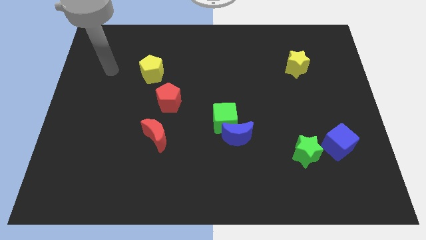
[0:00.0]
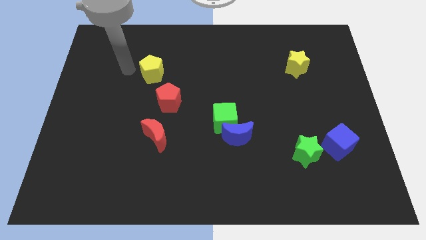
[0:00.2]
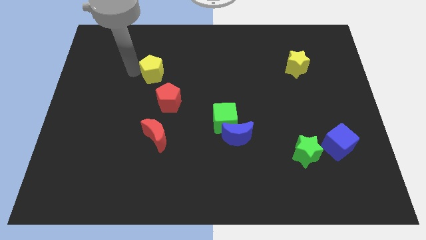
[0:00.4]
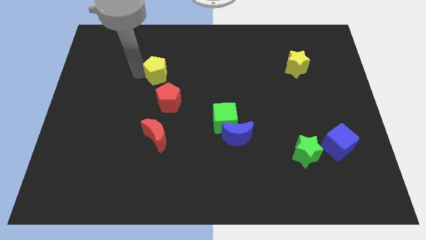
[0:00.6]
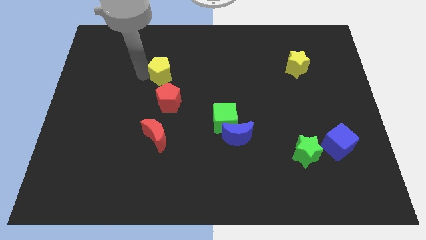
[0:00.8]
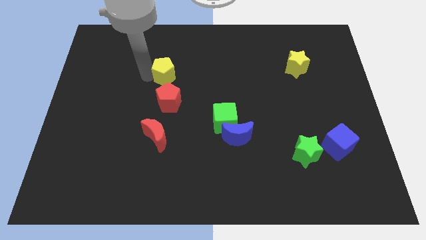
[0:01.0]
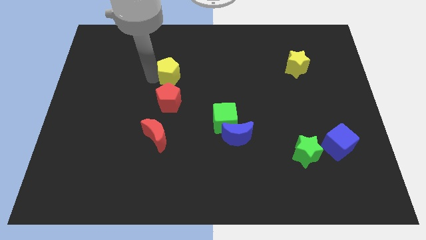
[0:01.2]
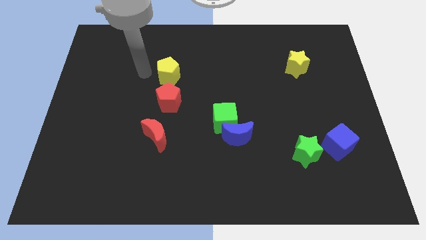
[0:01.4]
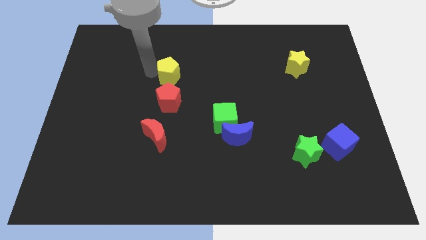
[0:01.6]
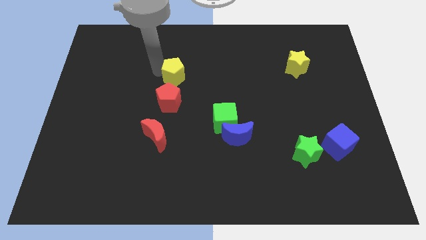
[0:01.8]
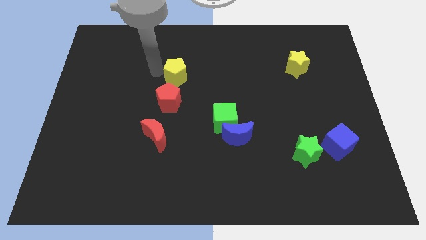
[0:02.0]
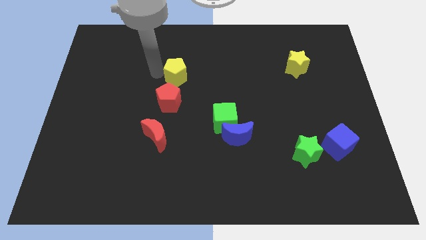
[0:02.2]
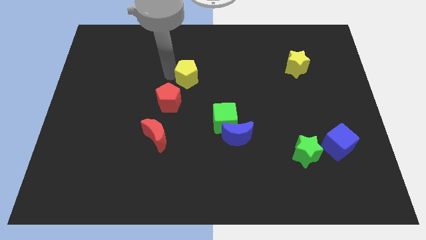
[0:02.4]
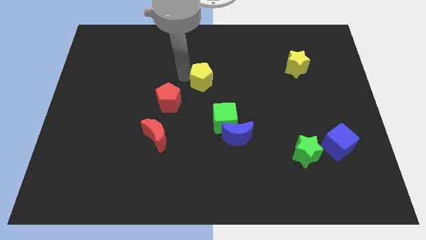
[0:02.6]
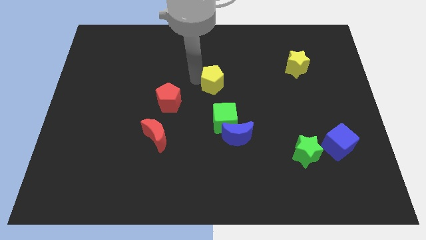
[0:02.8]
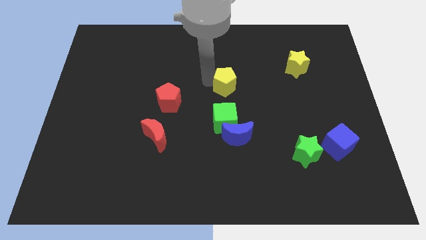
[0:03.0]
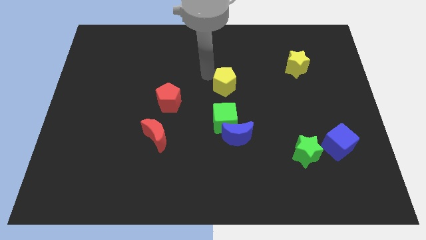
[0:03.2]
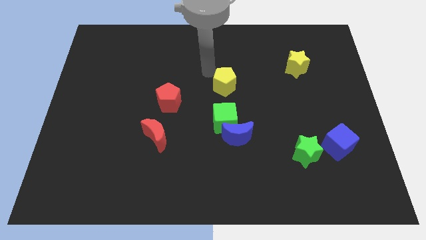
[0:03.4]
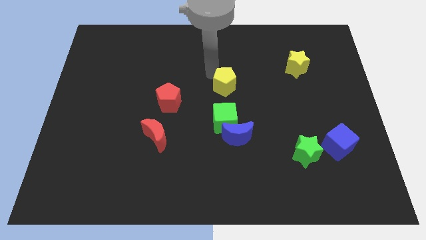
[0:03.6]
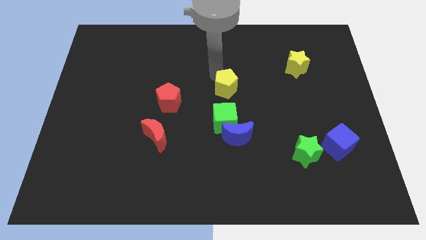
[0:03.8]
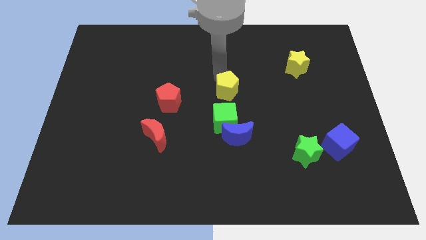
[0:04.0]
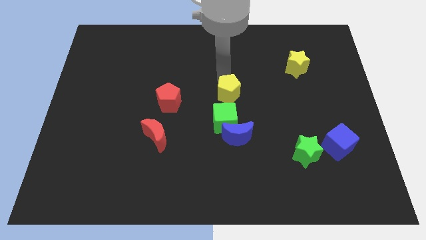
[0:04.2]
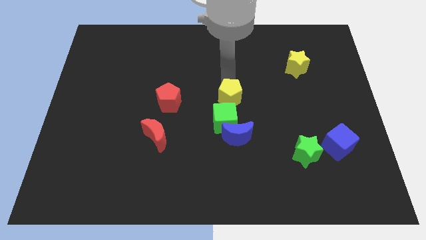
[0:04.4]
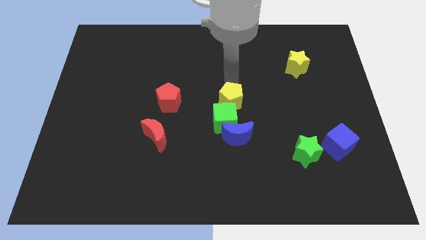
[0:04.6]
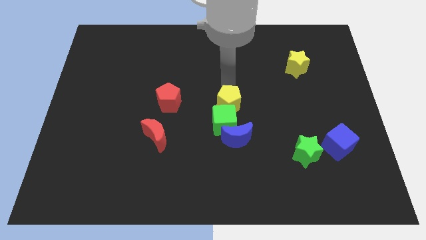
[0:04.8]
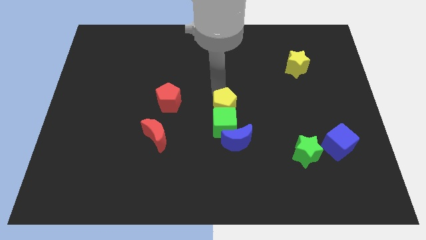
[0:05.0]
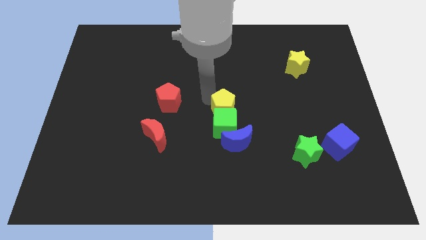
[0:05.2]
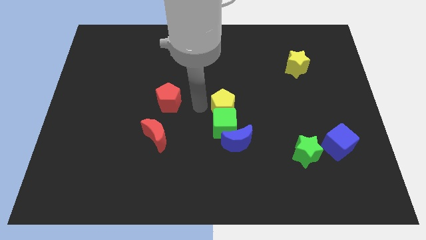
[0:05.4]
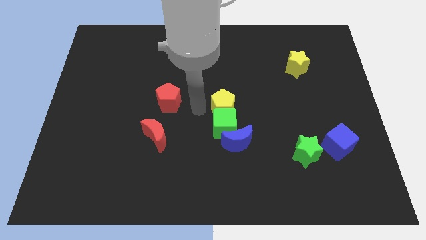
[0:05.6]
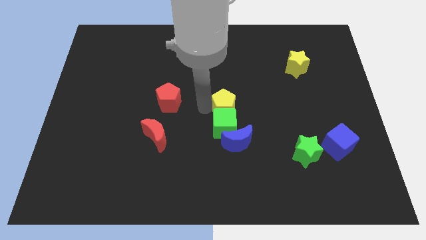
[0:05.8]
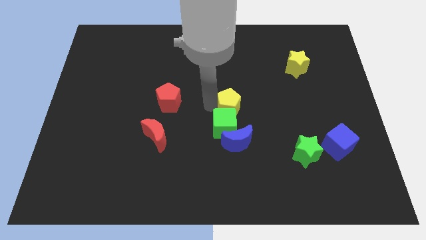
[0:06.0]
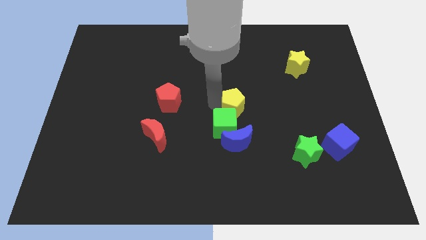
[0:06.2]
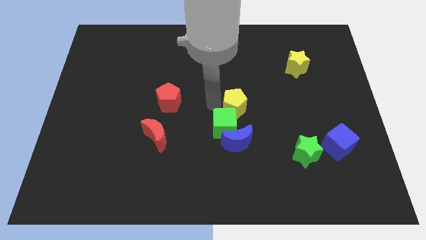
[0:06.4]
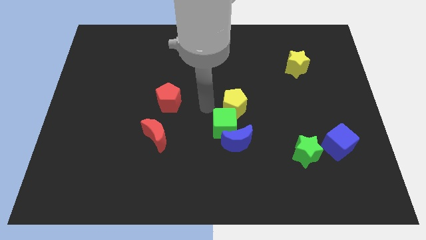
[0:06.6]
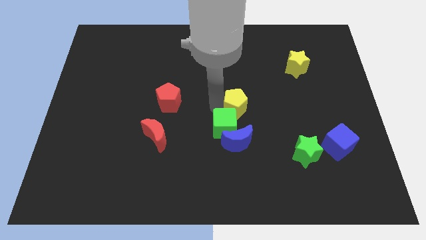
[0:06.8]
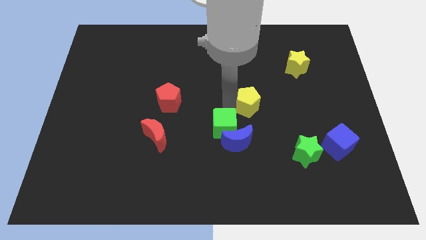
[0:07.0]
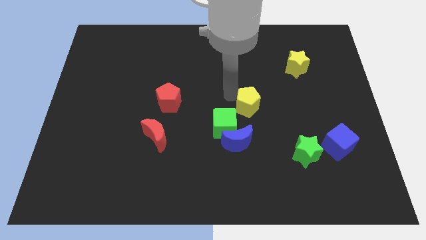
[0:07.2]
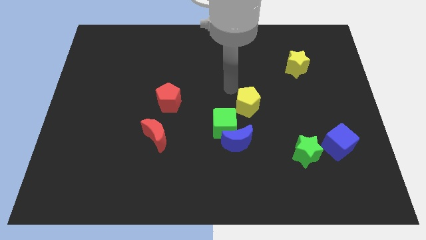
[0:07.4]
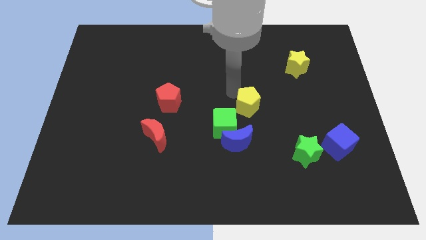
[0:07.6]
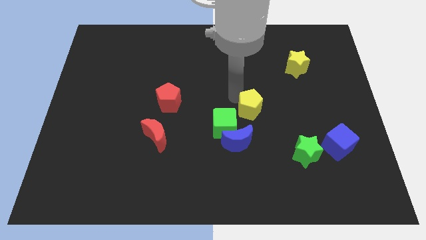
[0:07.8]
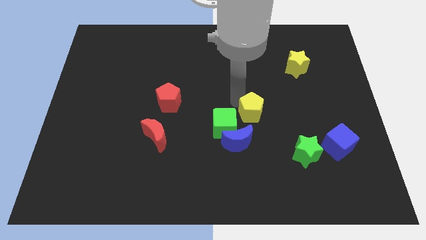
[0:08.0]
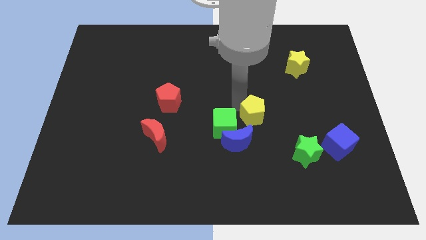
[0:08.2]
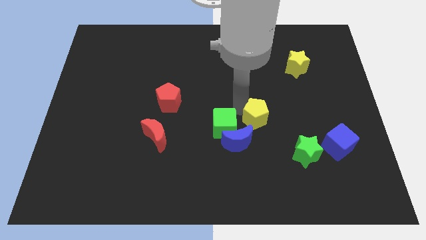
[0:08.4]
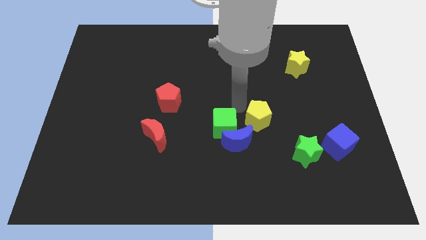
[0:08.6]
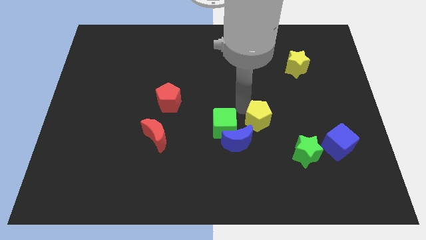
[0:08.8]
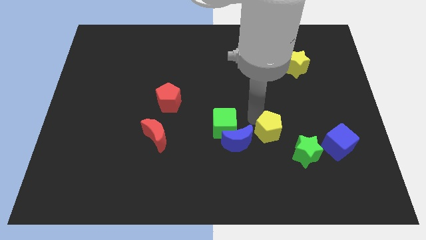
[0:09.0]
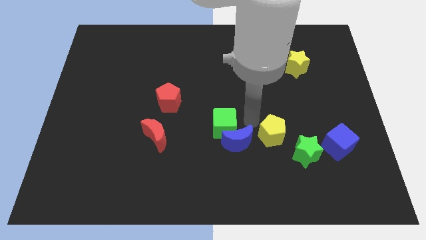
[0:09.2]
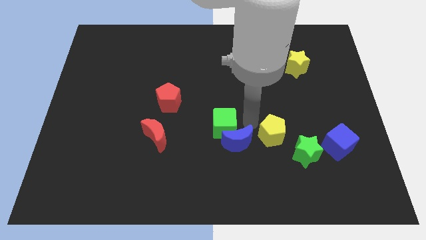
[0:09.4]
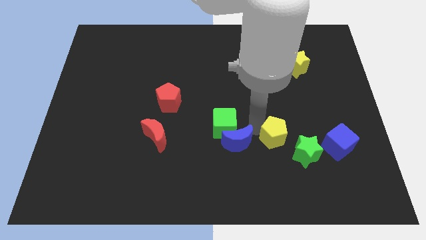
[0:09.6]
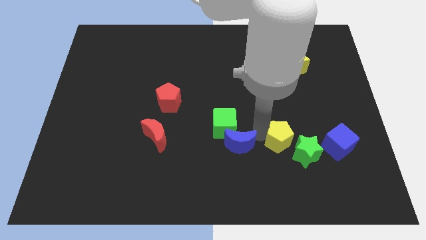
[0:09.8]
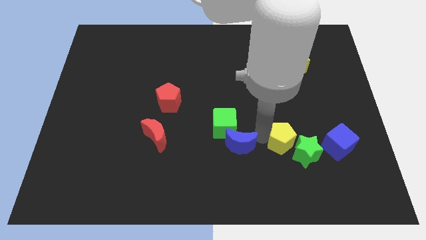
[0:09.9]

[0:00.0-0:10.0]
put the yellow pentagon next to the green star

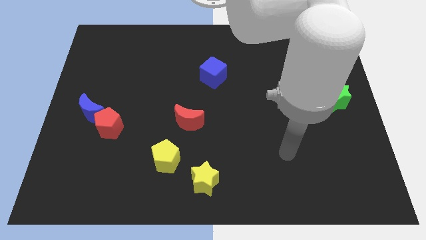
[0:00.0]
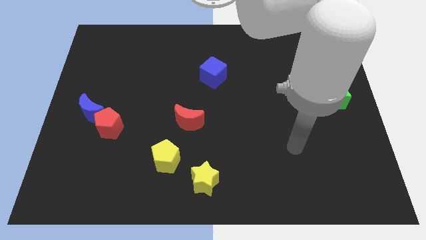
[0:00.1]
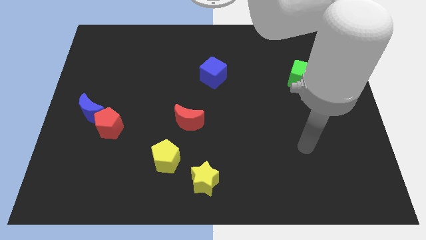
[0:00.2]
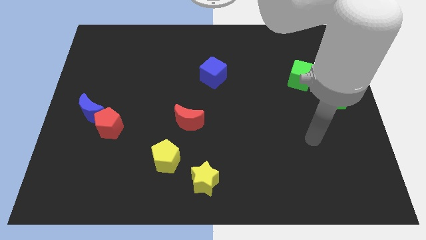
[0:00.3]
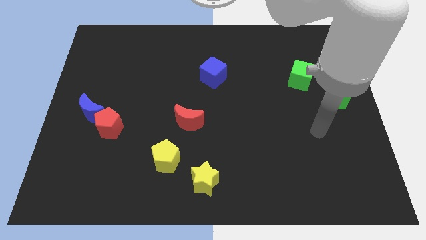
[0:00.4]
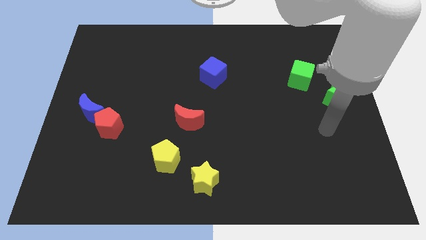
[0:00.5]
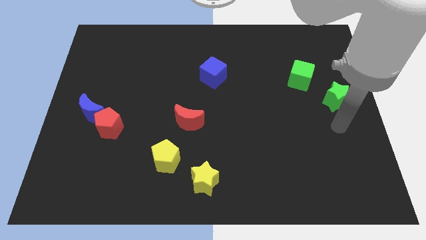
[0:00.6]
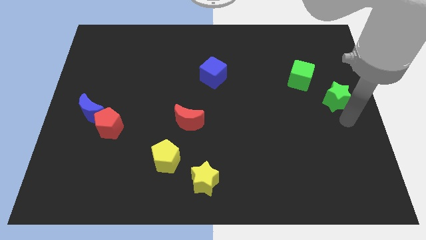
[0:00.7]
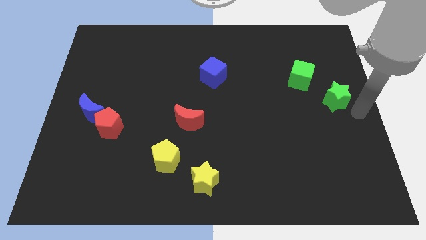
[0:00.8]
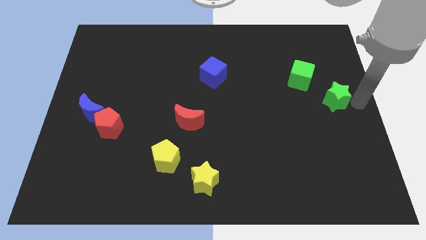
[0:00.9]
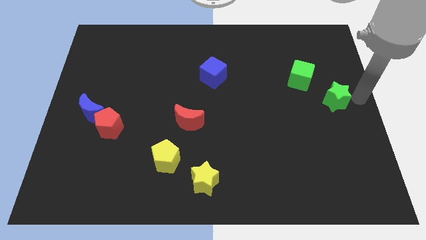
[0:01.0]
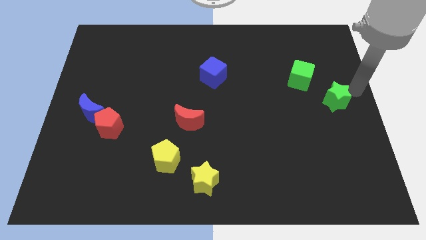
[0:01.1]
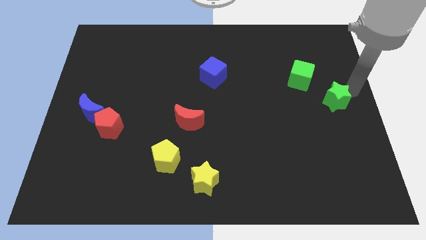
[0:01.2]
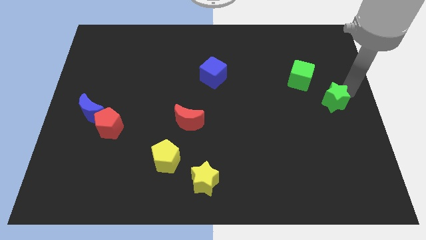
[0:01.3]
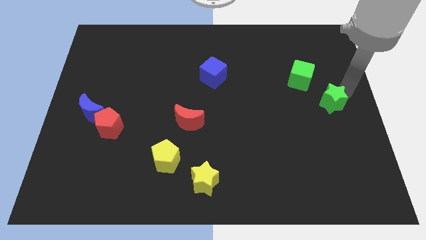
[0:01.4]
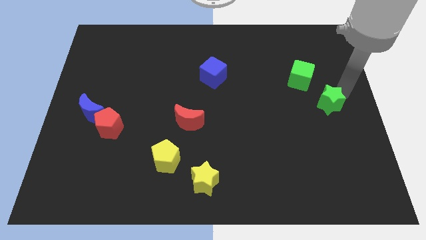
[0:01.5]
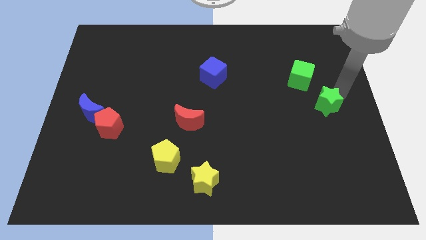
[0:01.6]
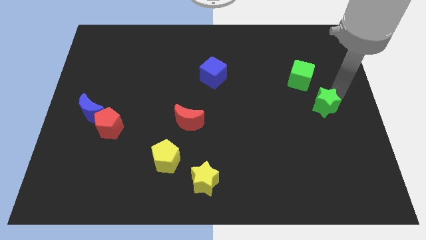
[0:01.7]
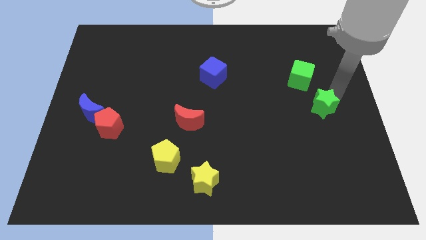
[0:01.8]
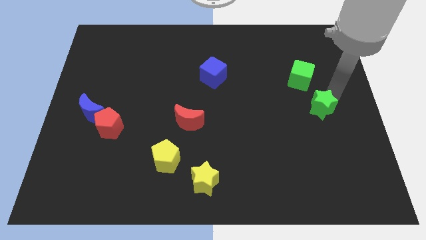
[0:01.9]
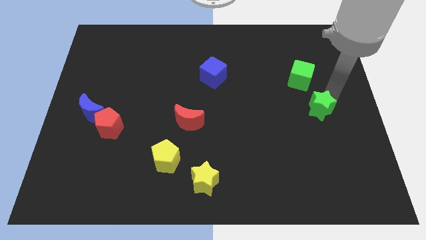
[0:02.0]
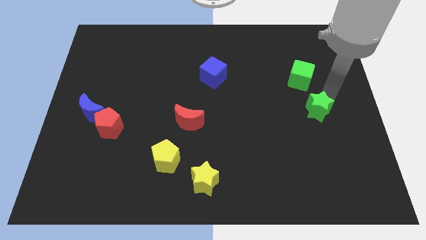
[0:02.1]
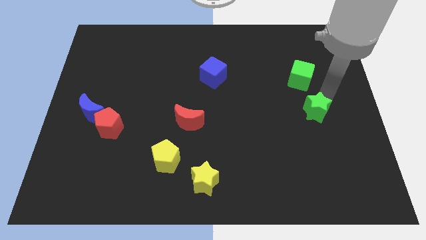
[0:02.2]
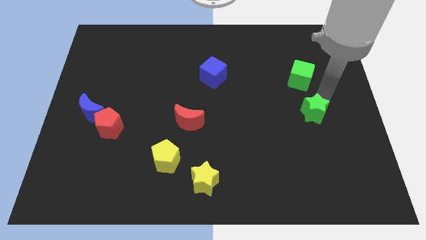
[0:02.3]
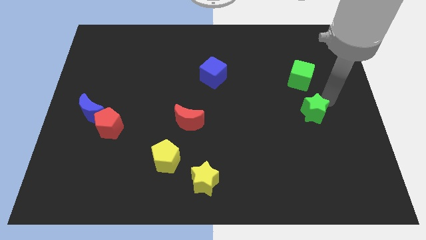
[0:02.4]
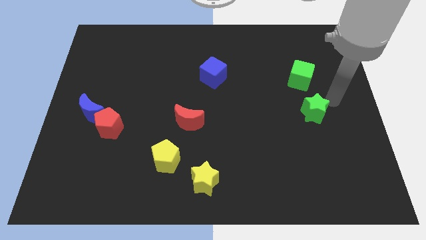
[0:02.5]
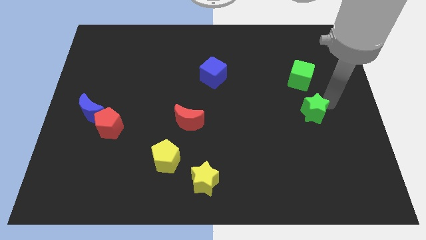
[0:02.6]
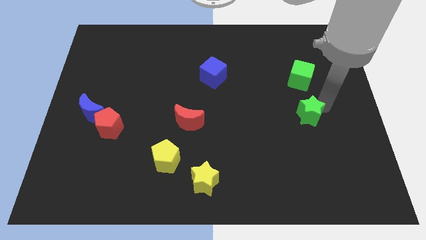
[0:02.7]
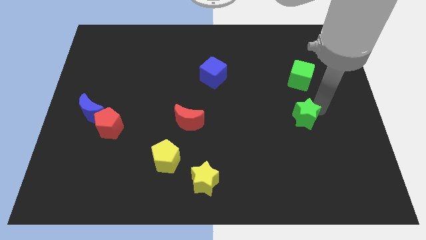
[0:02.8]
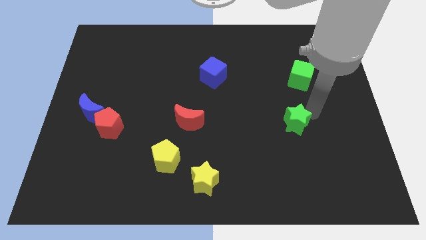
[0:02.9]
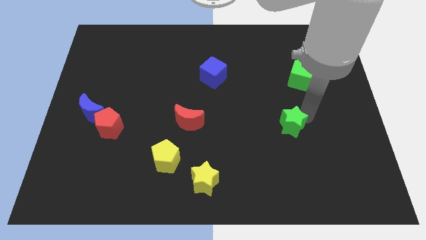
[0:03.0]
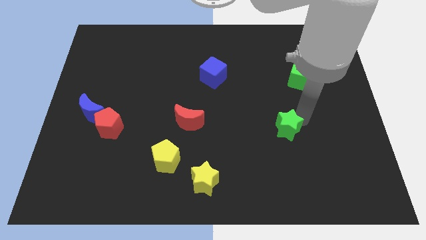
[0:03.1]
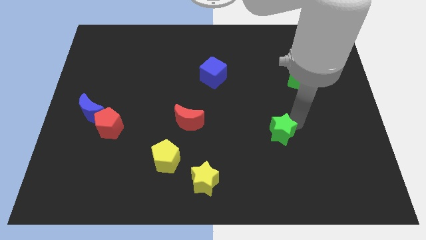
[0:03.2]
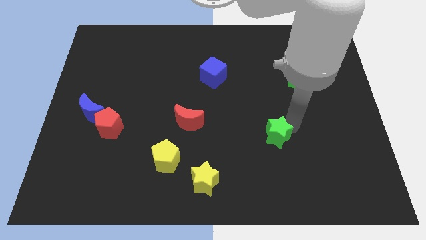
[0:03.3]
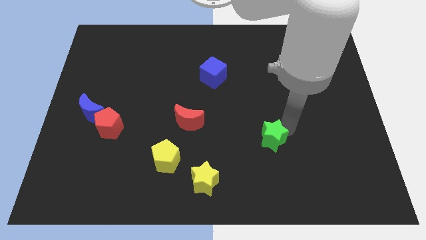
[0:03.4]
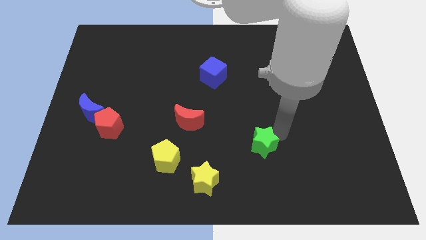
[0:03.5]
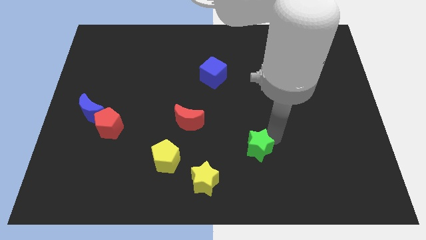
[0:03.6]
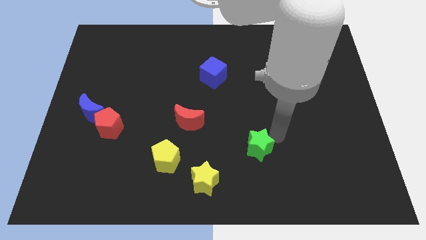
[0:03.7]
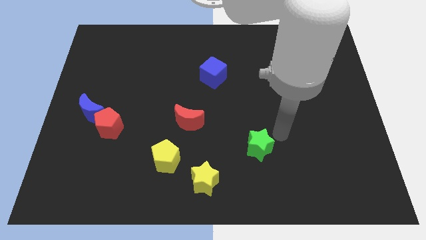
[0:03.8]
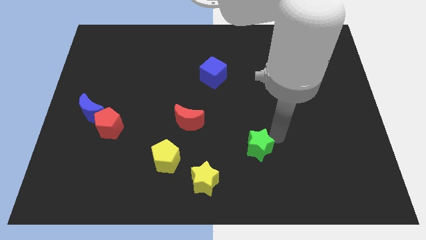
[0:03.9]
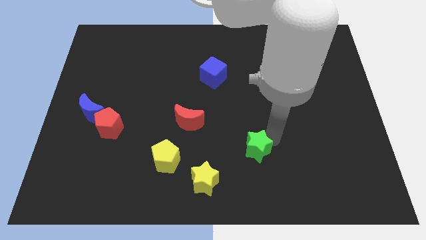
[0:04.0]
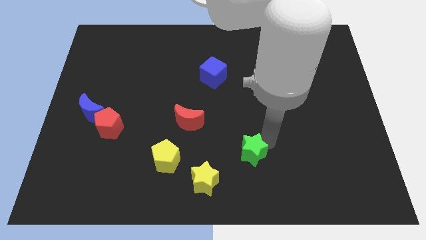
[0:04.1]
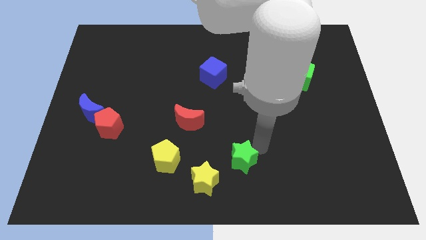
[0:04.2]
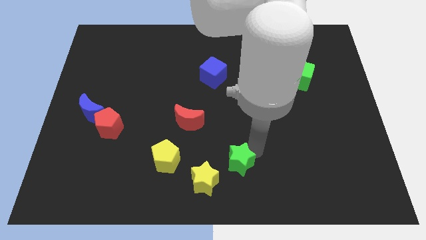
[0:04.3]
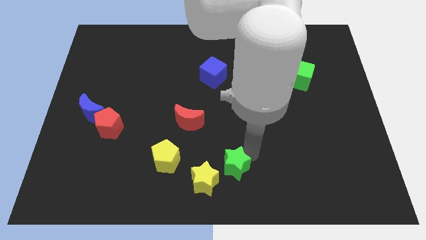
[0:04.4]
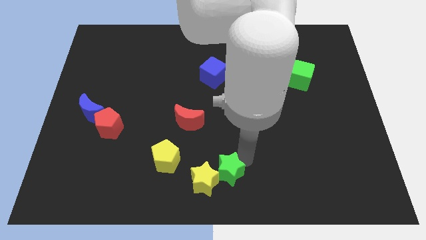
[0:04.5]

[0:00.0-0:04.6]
put the green star towards the yellow star
